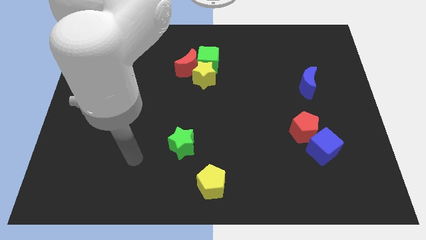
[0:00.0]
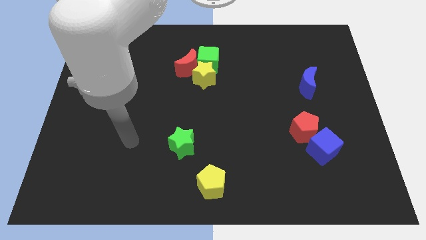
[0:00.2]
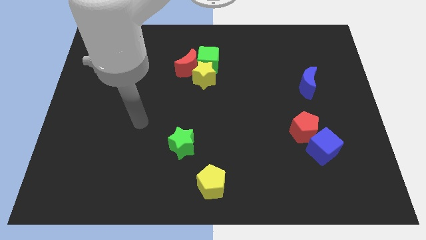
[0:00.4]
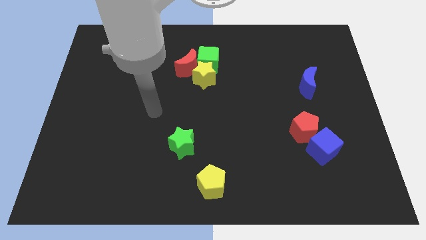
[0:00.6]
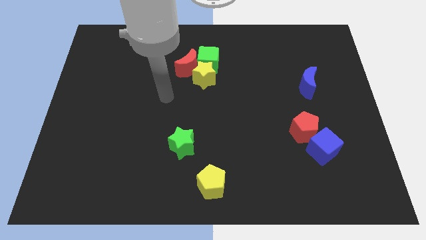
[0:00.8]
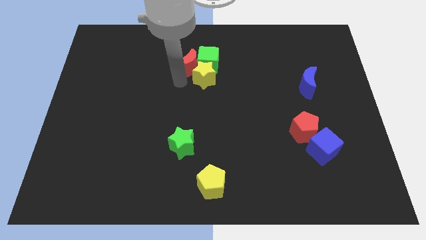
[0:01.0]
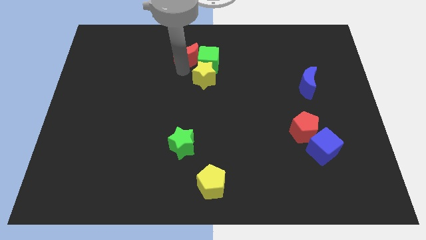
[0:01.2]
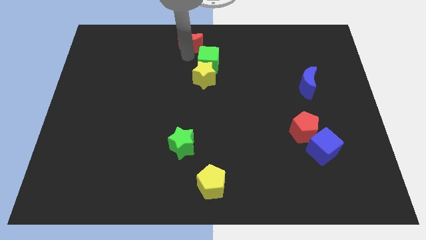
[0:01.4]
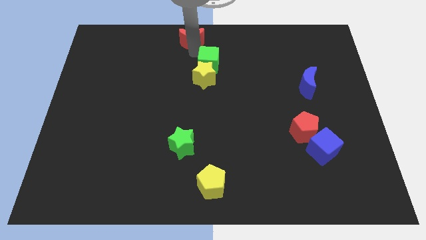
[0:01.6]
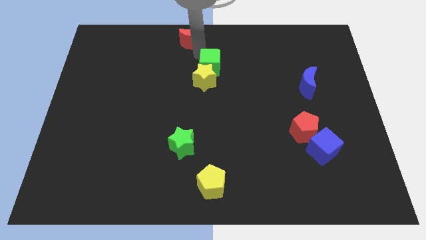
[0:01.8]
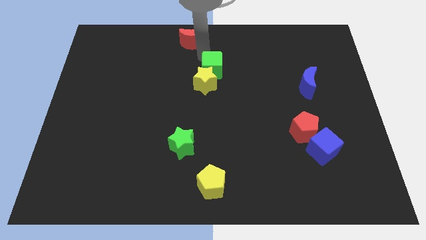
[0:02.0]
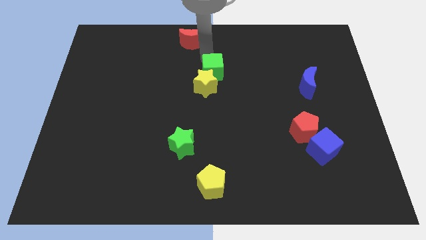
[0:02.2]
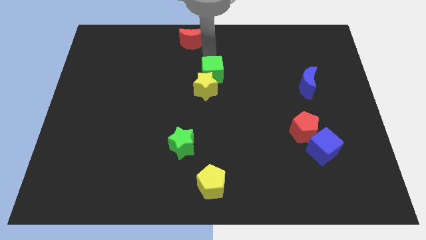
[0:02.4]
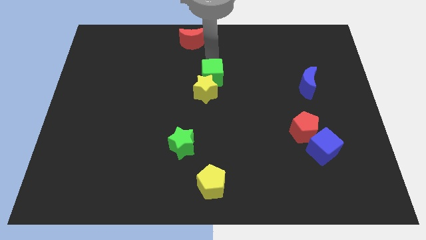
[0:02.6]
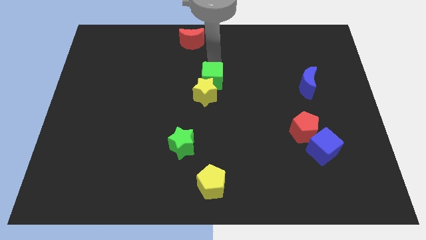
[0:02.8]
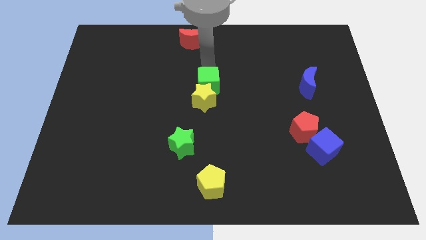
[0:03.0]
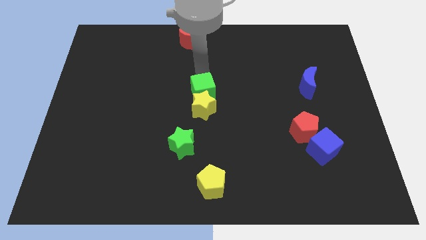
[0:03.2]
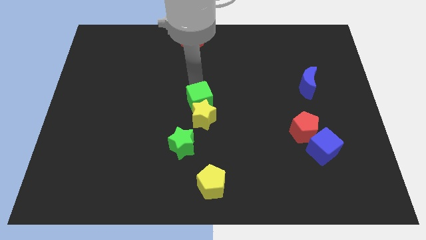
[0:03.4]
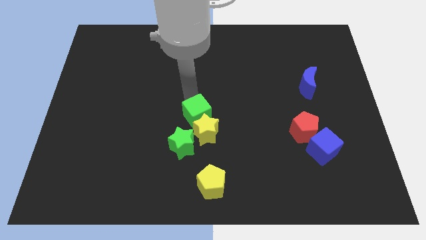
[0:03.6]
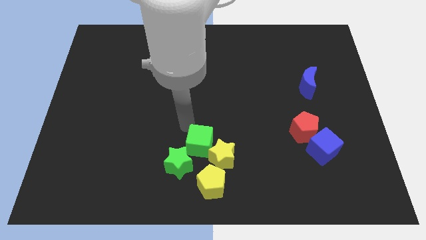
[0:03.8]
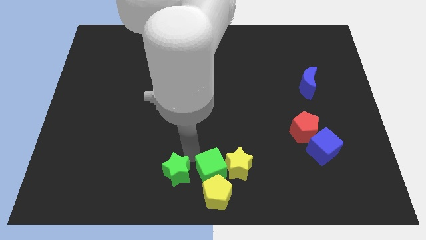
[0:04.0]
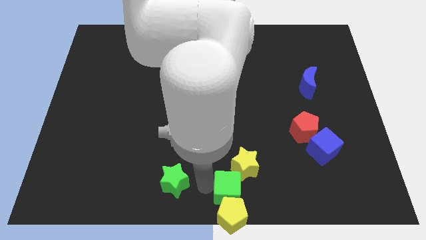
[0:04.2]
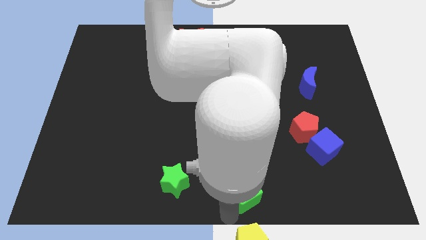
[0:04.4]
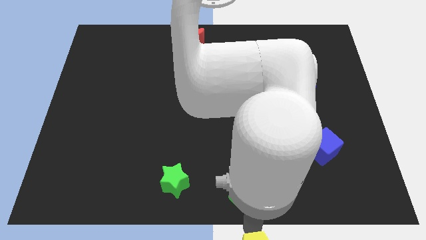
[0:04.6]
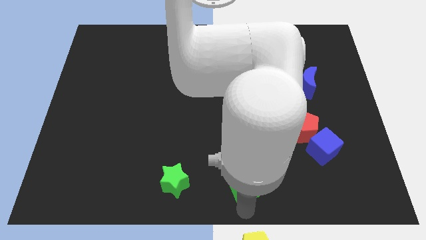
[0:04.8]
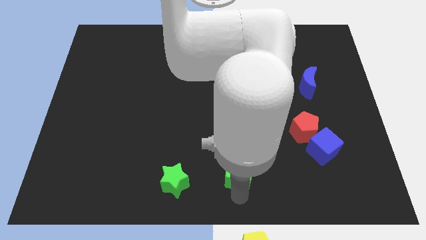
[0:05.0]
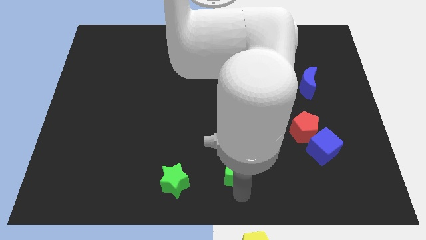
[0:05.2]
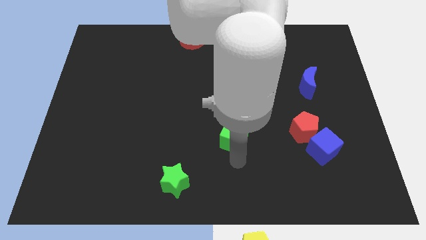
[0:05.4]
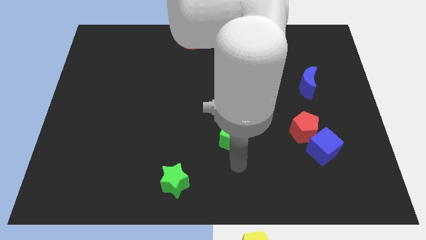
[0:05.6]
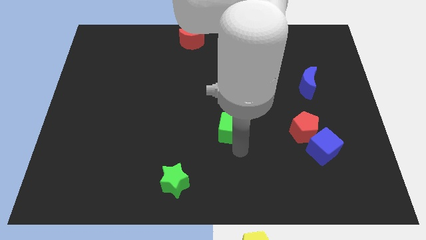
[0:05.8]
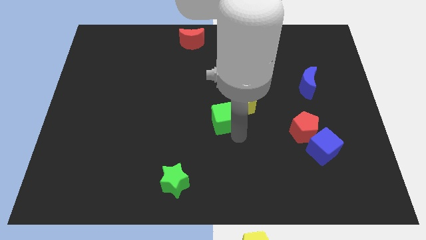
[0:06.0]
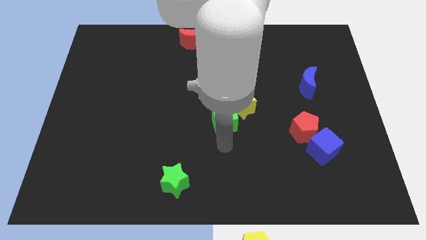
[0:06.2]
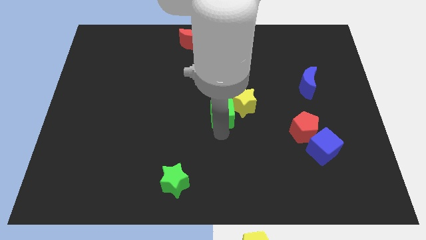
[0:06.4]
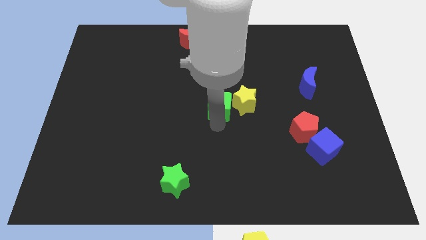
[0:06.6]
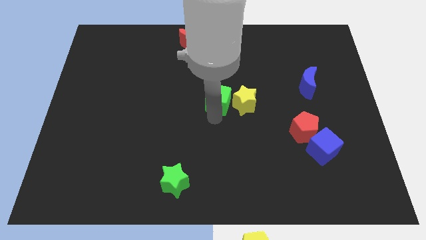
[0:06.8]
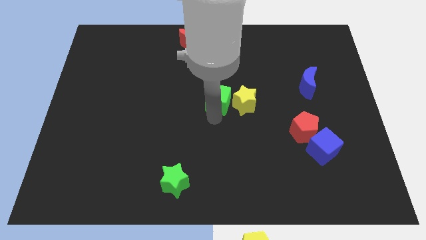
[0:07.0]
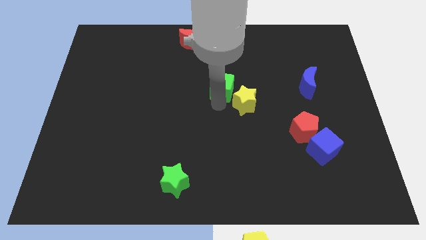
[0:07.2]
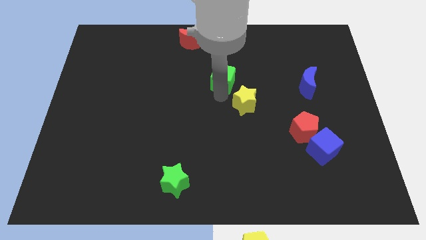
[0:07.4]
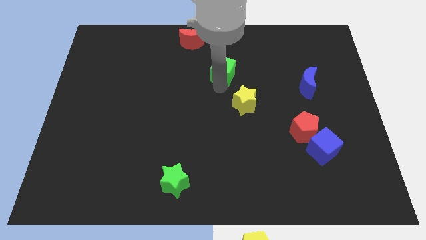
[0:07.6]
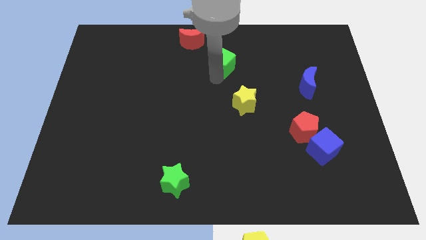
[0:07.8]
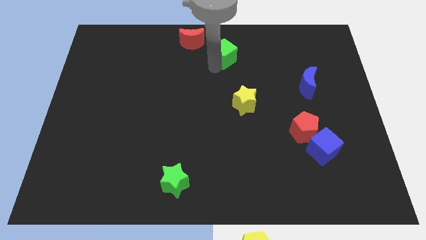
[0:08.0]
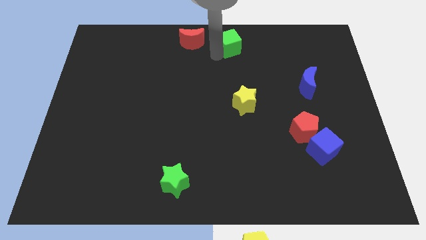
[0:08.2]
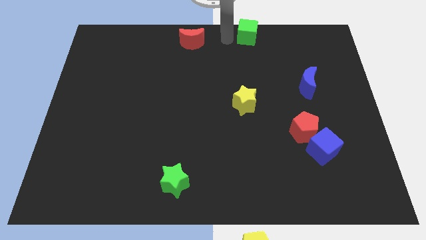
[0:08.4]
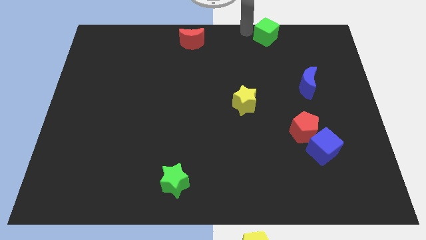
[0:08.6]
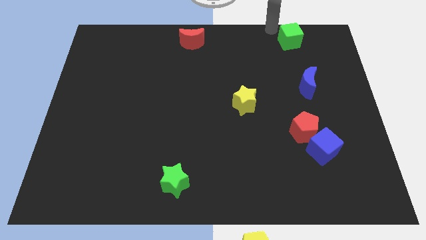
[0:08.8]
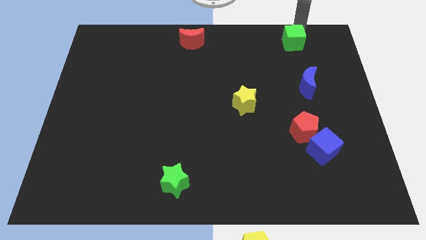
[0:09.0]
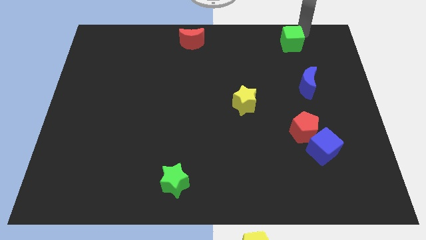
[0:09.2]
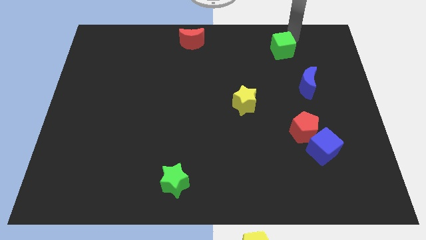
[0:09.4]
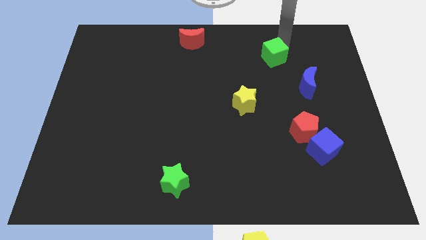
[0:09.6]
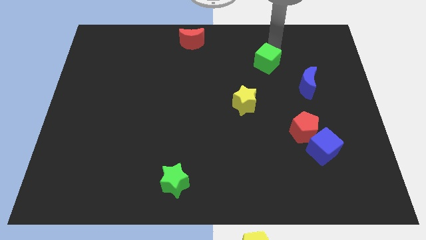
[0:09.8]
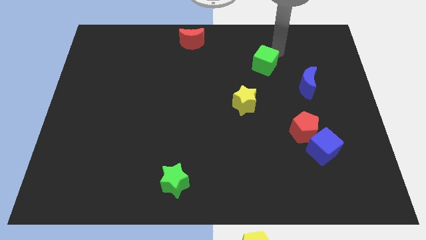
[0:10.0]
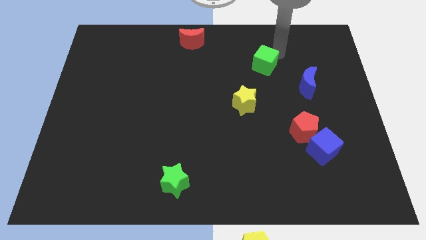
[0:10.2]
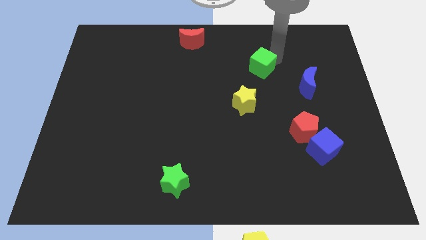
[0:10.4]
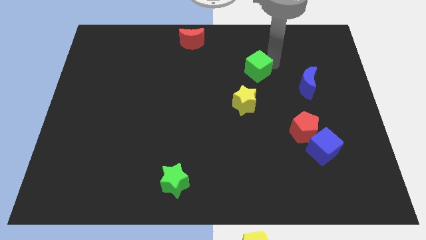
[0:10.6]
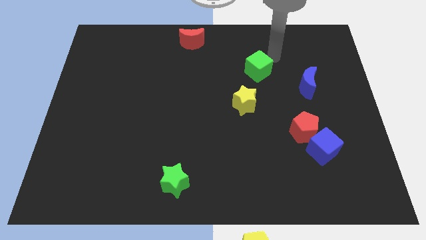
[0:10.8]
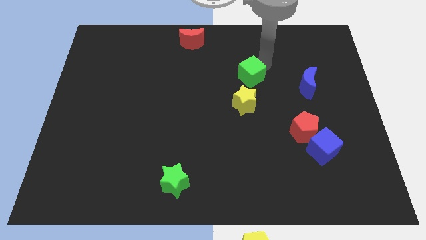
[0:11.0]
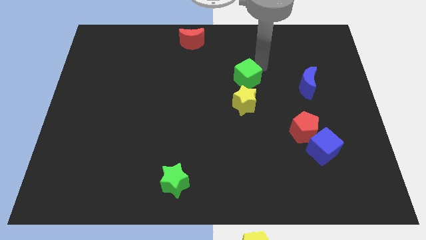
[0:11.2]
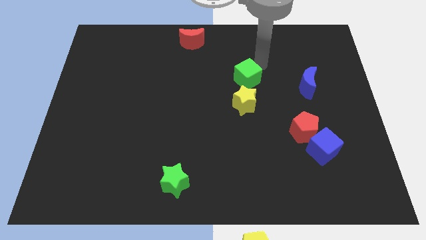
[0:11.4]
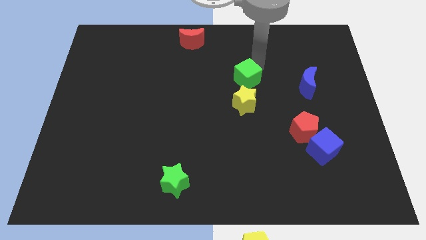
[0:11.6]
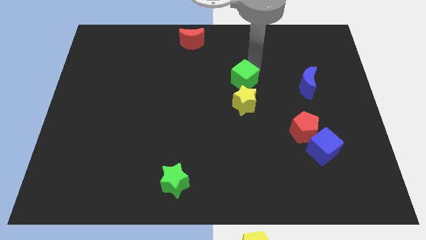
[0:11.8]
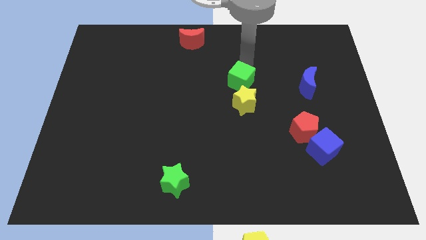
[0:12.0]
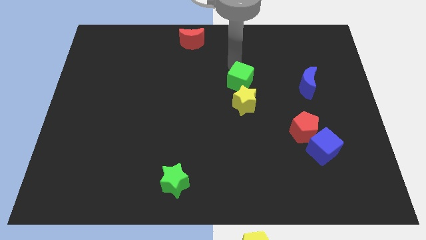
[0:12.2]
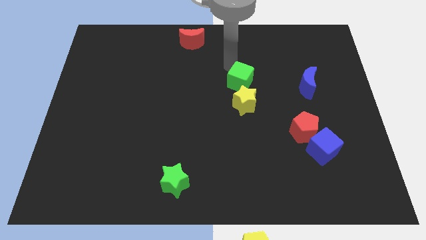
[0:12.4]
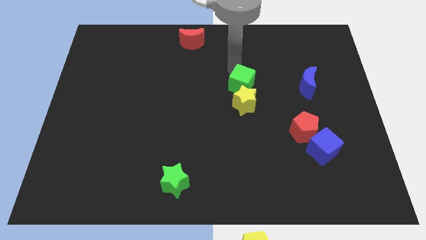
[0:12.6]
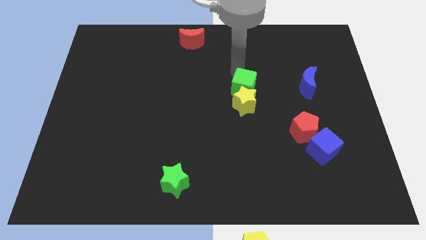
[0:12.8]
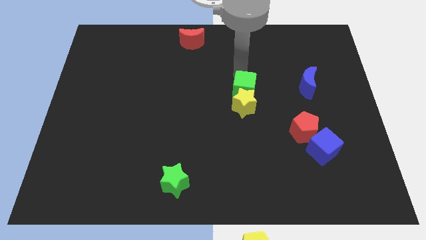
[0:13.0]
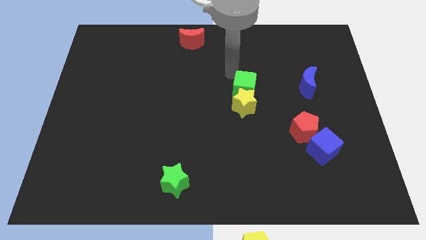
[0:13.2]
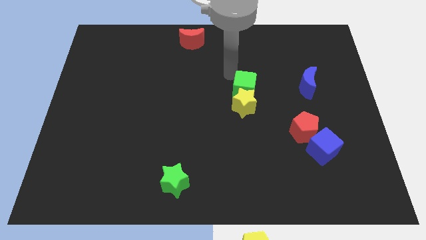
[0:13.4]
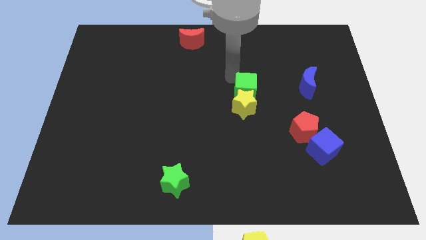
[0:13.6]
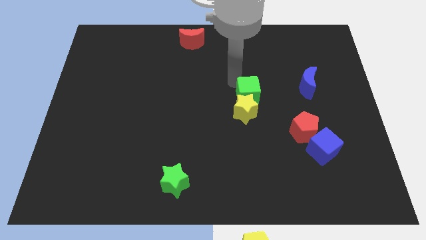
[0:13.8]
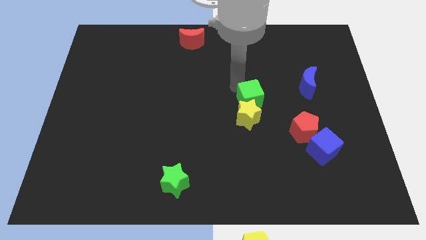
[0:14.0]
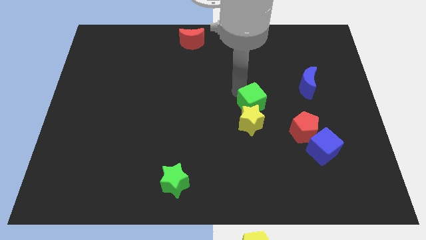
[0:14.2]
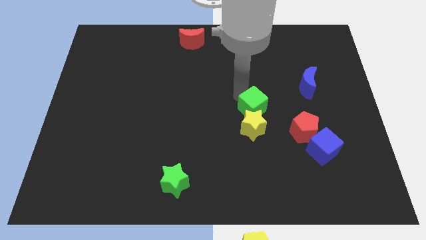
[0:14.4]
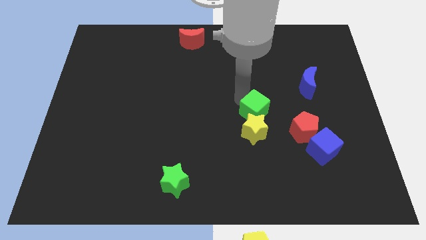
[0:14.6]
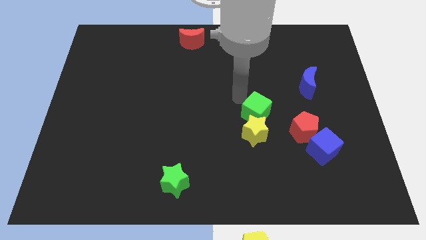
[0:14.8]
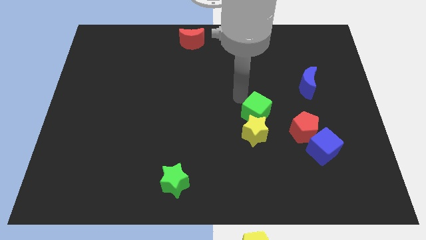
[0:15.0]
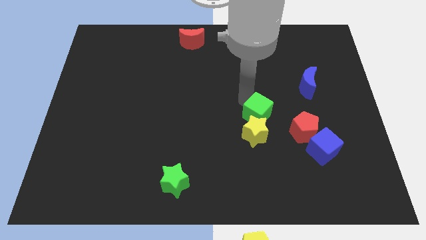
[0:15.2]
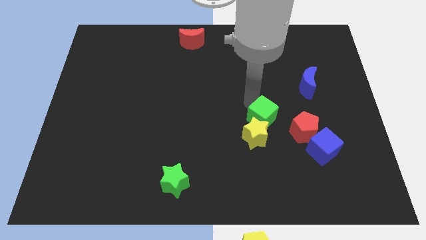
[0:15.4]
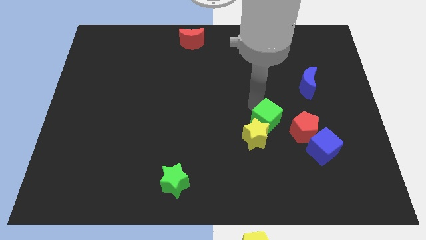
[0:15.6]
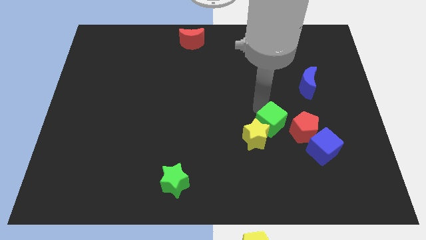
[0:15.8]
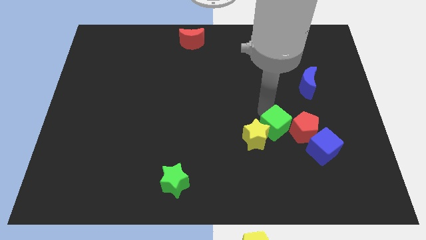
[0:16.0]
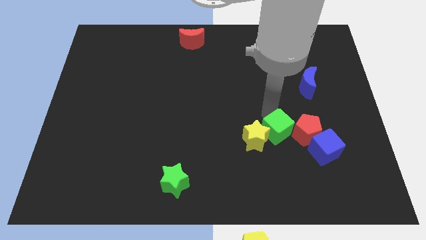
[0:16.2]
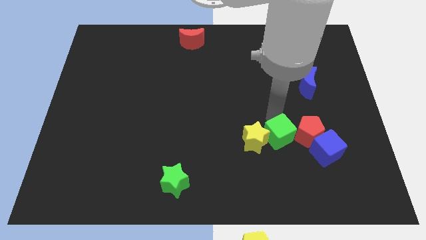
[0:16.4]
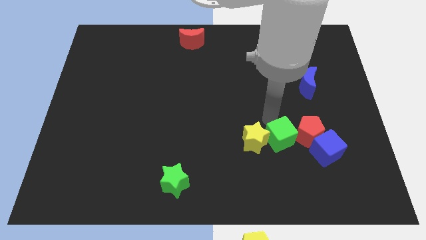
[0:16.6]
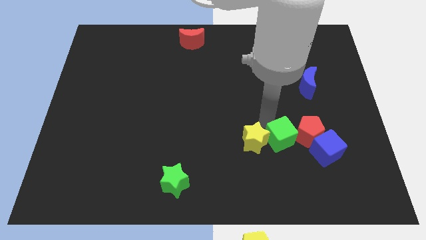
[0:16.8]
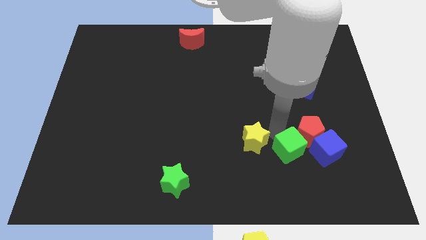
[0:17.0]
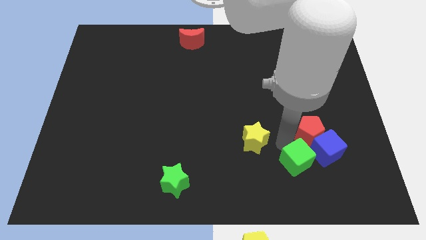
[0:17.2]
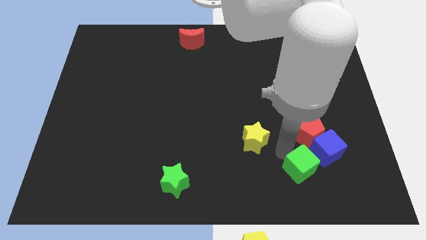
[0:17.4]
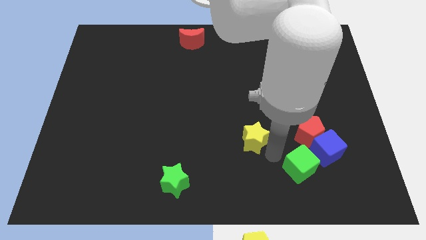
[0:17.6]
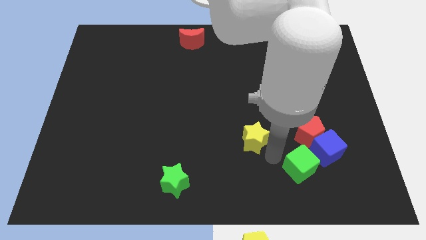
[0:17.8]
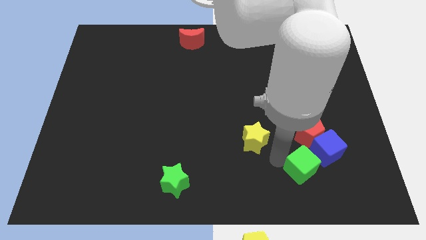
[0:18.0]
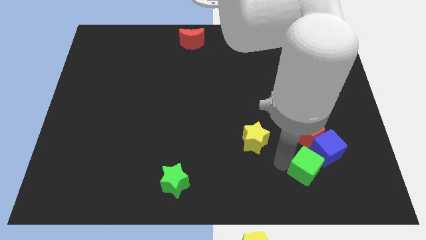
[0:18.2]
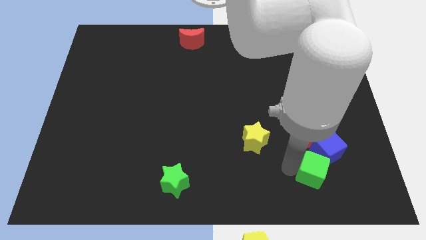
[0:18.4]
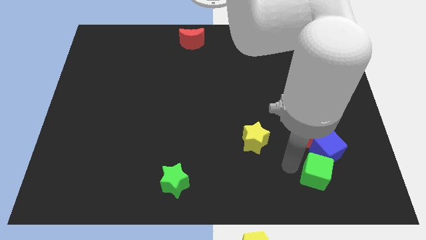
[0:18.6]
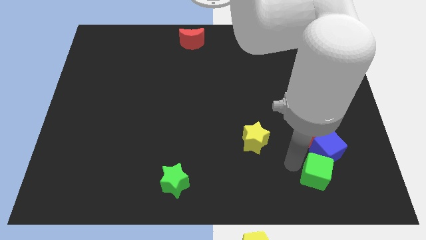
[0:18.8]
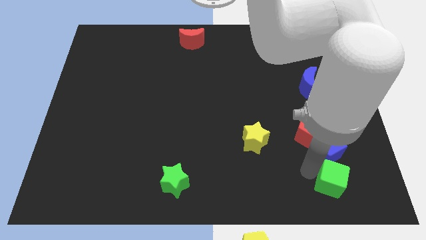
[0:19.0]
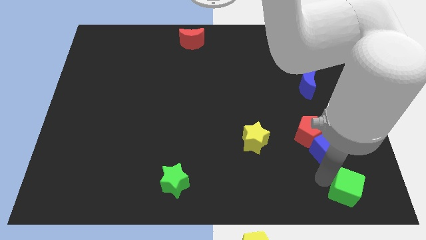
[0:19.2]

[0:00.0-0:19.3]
push the green cube to the bottom right
